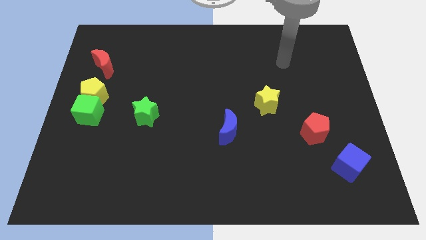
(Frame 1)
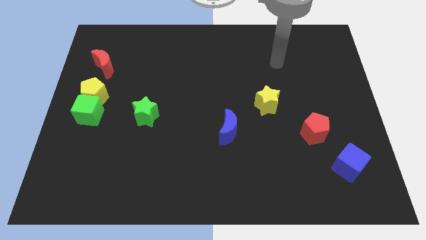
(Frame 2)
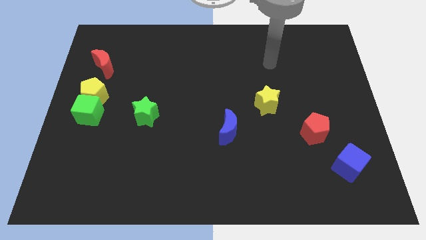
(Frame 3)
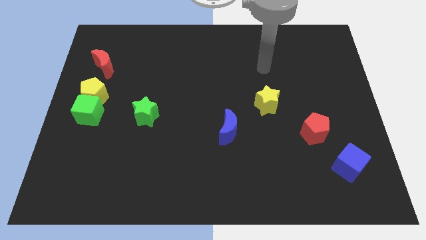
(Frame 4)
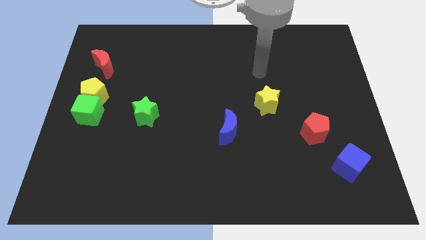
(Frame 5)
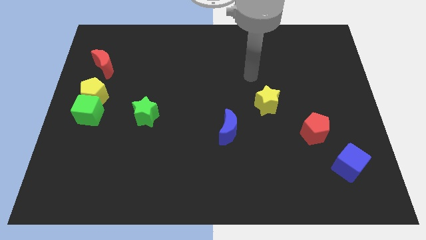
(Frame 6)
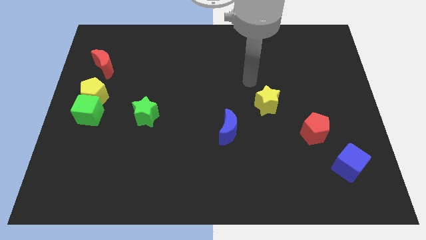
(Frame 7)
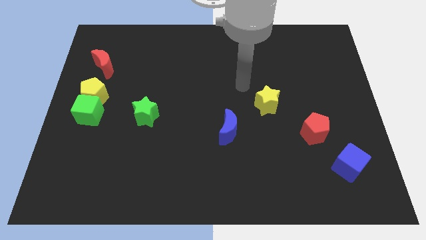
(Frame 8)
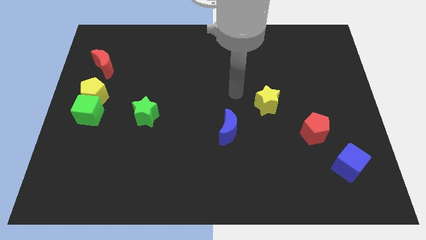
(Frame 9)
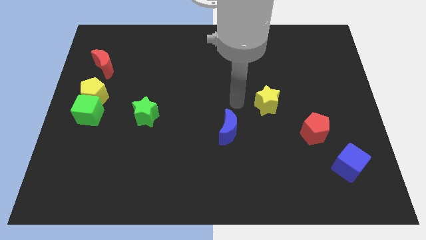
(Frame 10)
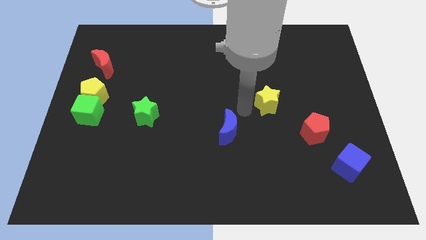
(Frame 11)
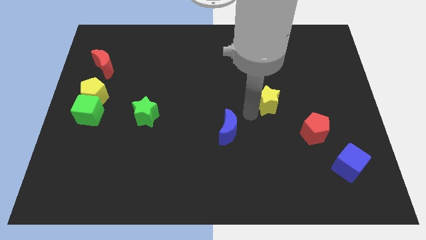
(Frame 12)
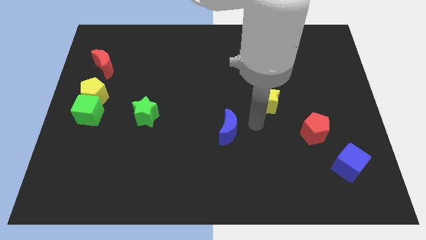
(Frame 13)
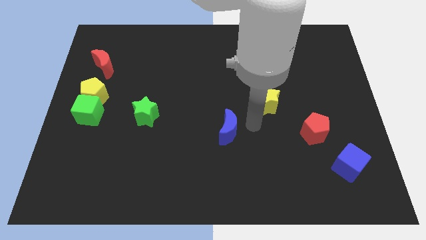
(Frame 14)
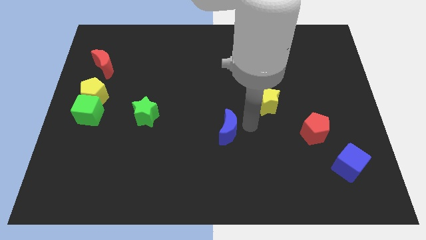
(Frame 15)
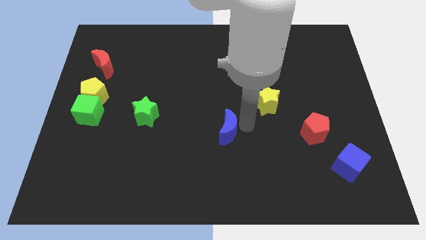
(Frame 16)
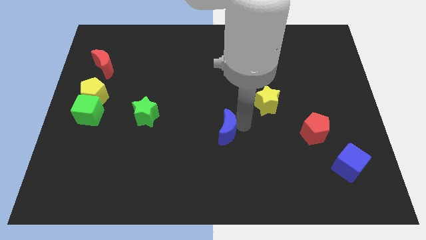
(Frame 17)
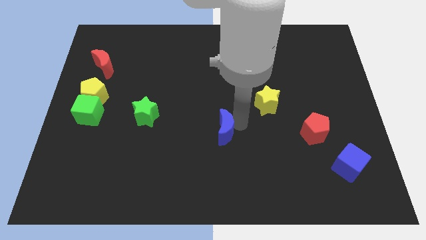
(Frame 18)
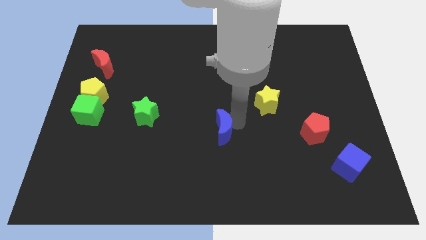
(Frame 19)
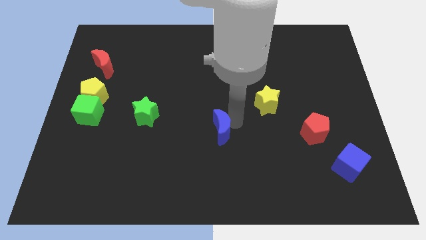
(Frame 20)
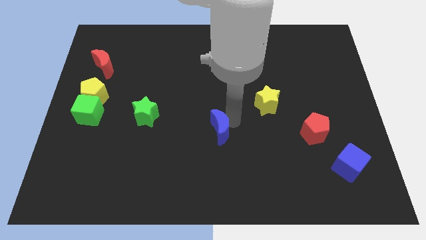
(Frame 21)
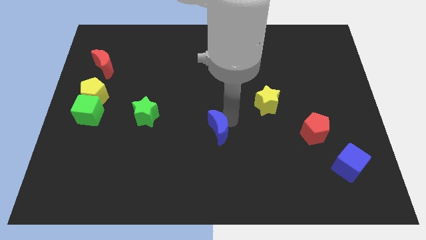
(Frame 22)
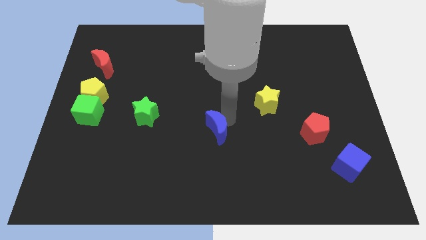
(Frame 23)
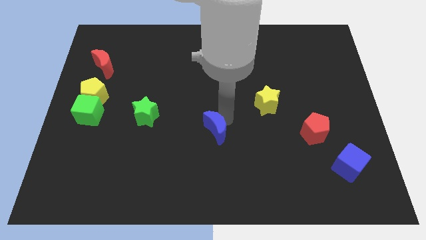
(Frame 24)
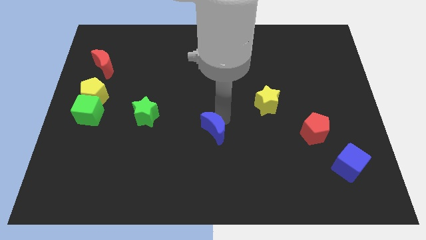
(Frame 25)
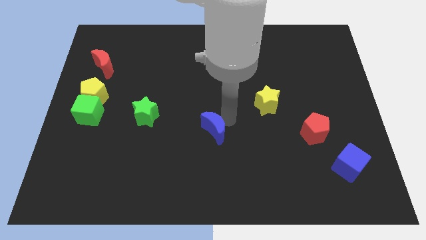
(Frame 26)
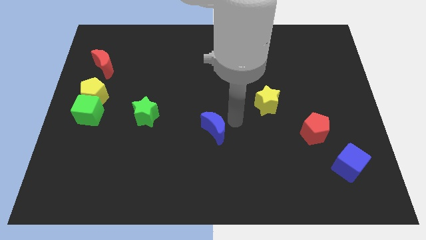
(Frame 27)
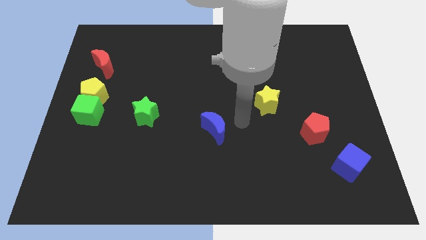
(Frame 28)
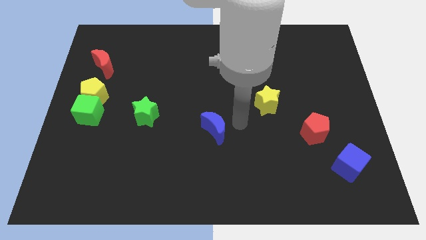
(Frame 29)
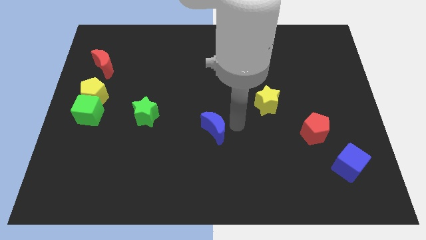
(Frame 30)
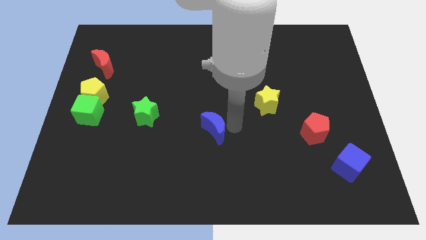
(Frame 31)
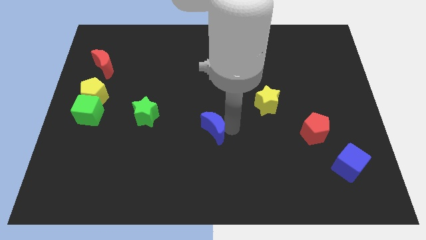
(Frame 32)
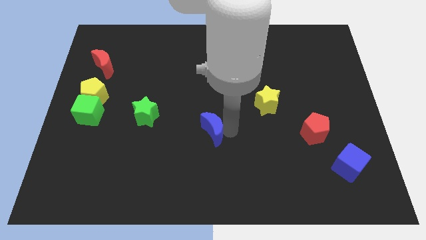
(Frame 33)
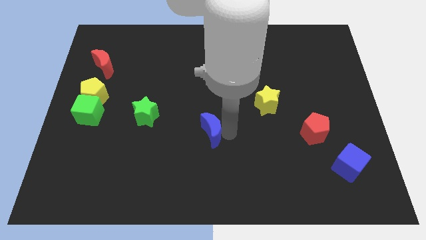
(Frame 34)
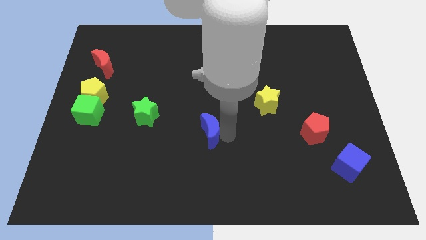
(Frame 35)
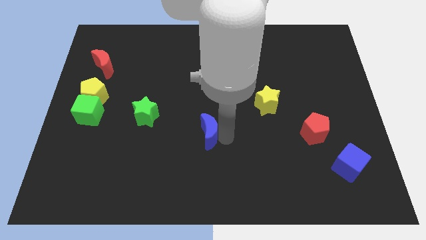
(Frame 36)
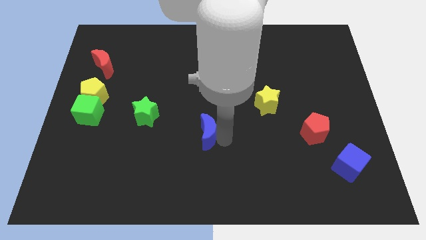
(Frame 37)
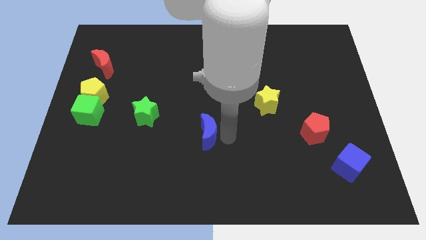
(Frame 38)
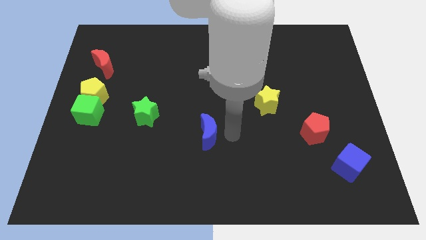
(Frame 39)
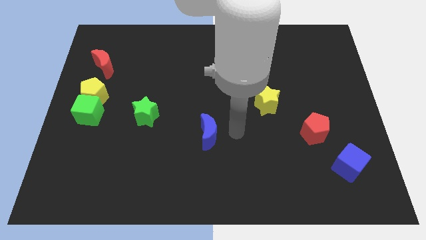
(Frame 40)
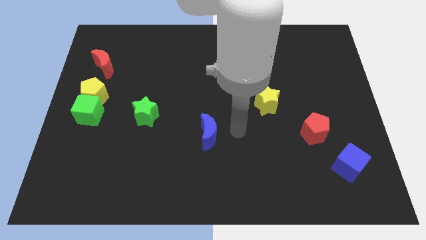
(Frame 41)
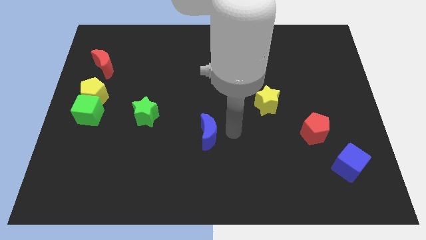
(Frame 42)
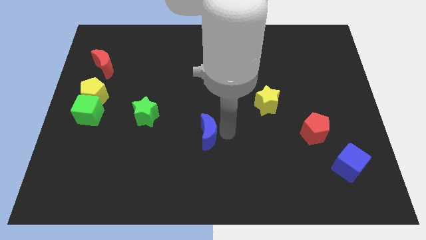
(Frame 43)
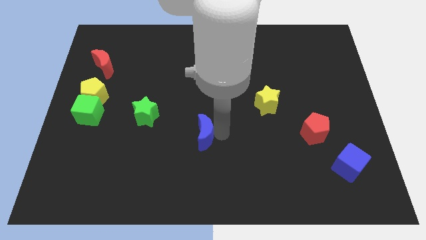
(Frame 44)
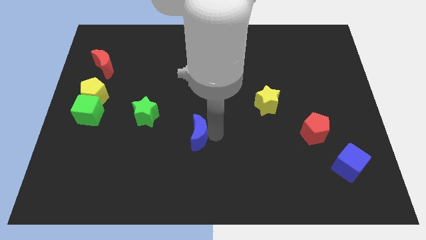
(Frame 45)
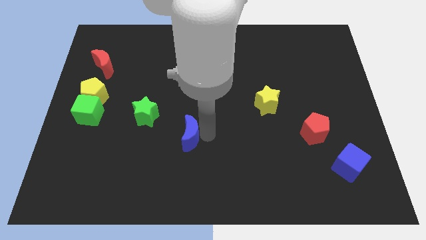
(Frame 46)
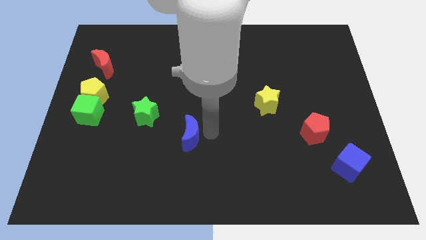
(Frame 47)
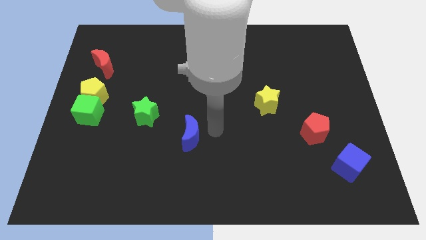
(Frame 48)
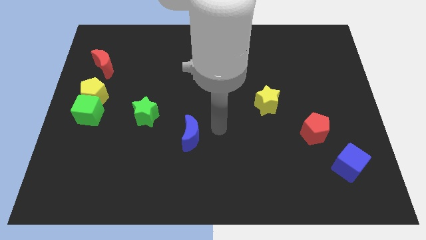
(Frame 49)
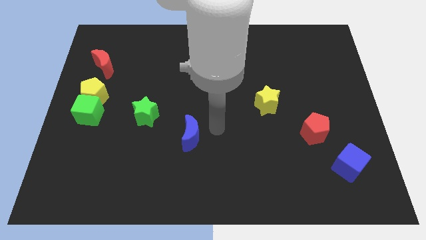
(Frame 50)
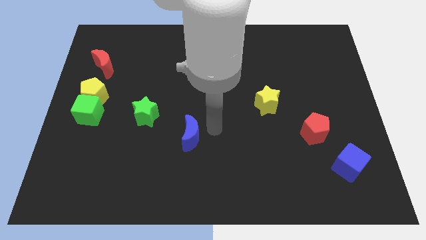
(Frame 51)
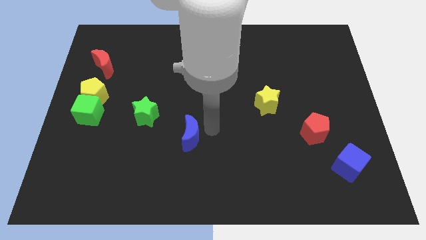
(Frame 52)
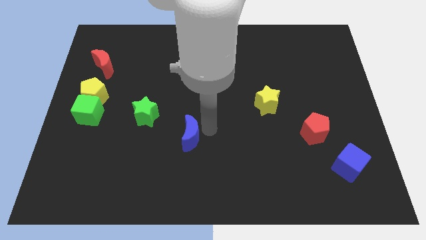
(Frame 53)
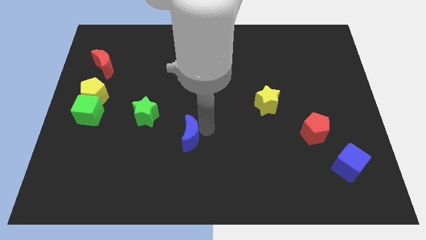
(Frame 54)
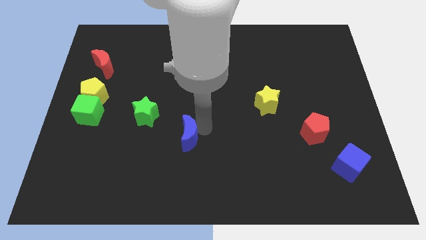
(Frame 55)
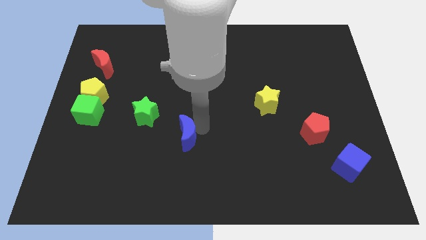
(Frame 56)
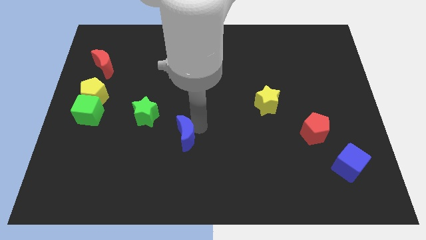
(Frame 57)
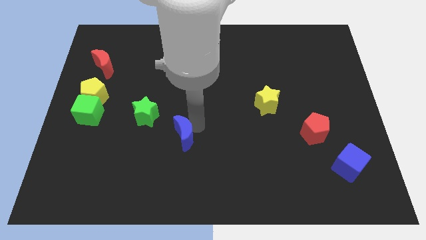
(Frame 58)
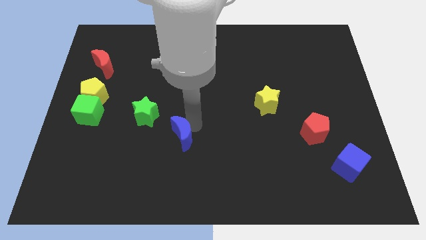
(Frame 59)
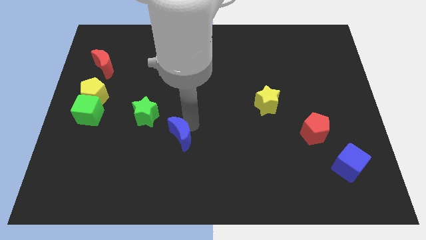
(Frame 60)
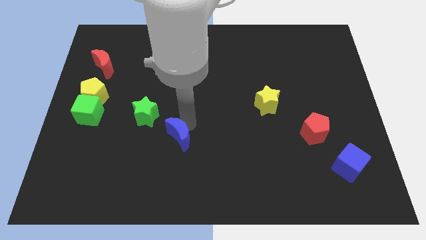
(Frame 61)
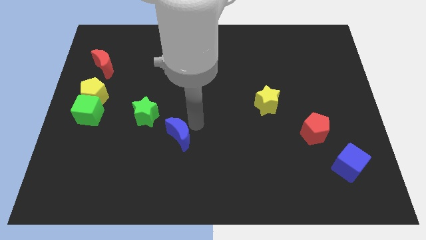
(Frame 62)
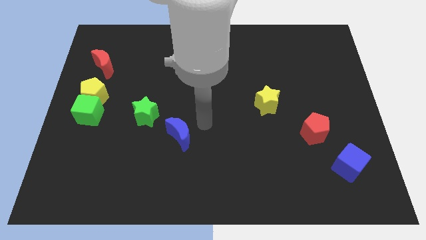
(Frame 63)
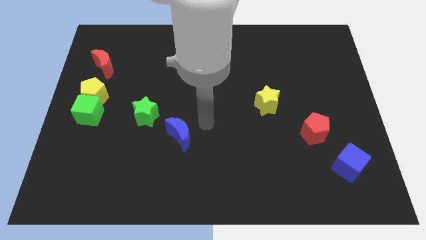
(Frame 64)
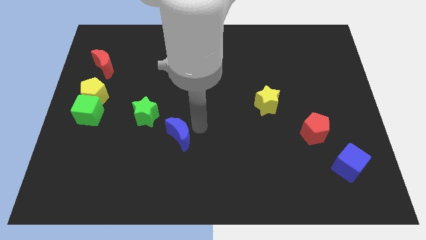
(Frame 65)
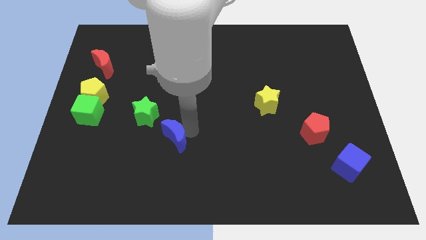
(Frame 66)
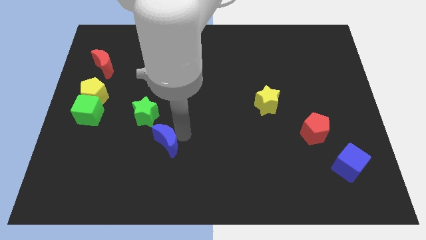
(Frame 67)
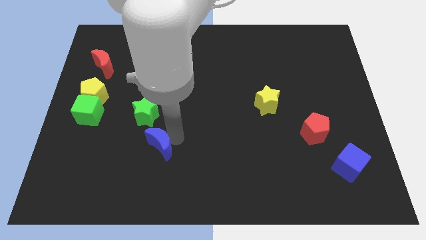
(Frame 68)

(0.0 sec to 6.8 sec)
put the blue moon to the bottom of the green star

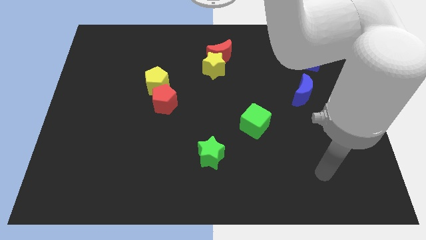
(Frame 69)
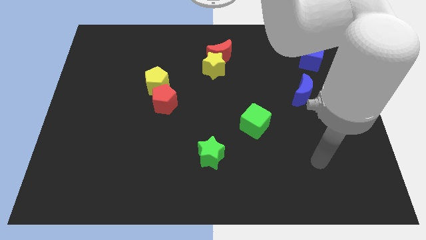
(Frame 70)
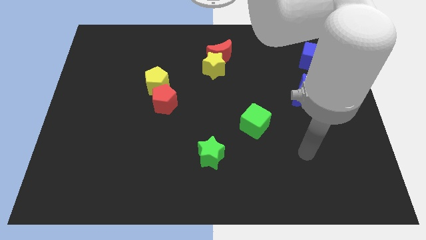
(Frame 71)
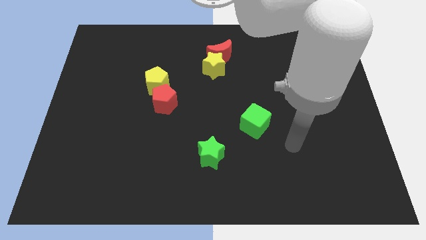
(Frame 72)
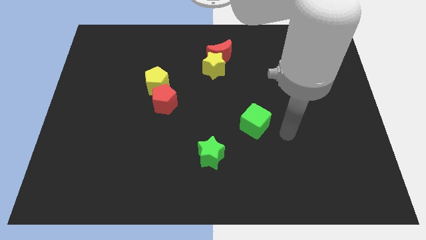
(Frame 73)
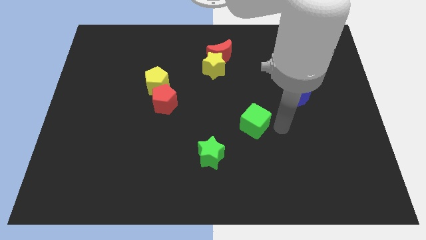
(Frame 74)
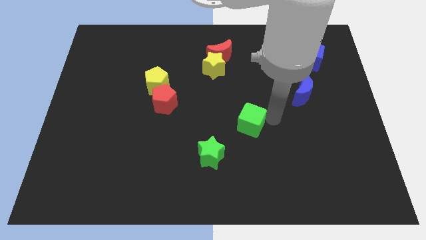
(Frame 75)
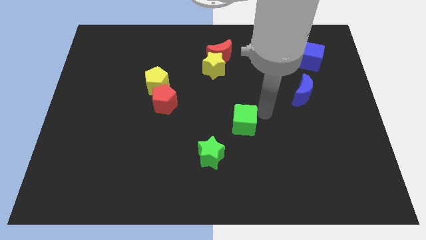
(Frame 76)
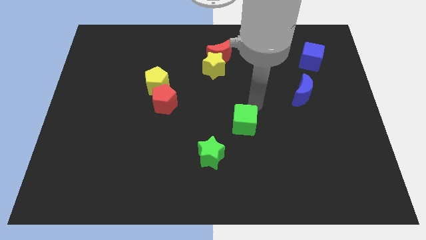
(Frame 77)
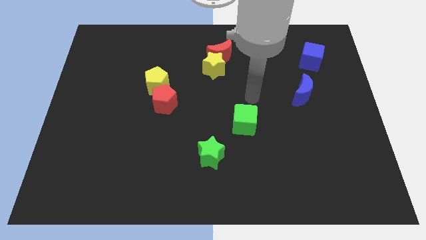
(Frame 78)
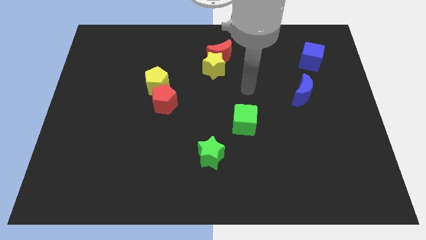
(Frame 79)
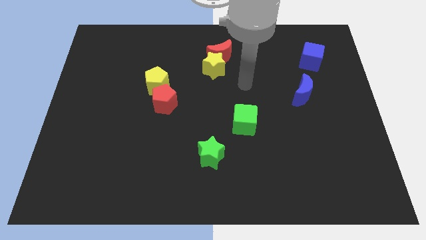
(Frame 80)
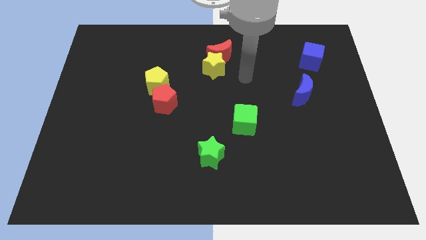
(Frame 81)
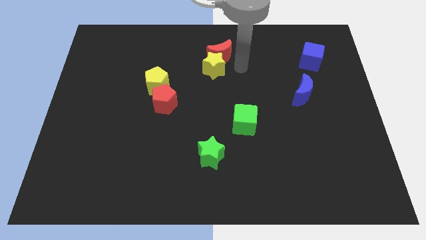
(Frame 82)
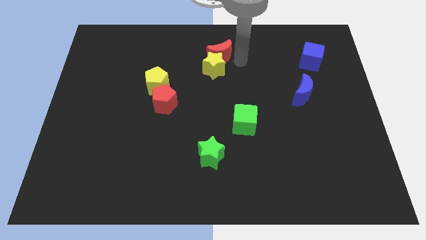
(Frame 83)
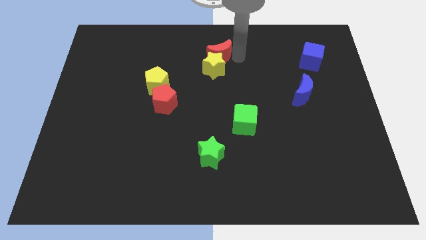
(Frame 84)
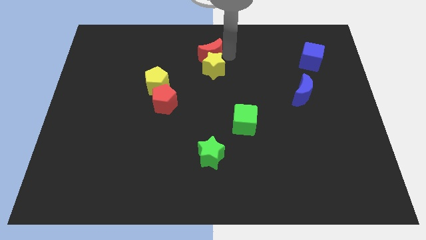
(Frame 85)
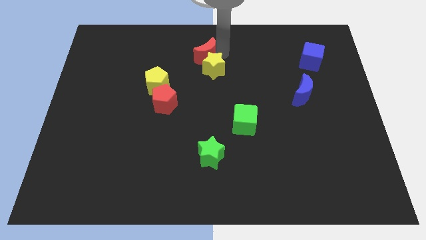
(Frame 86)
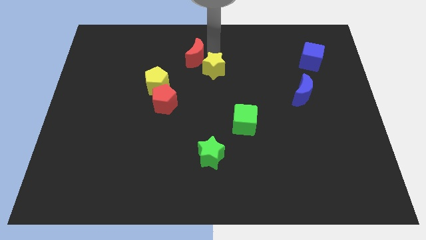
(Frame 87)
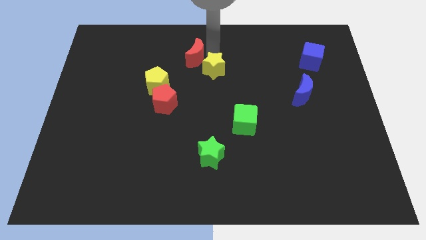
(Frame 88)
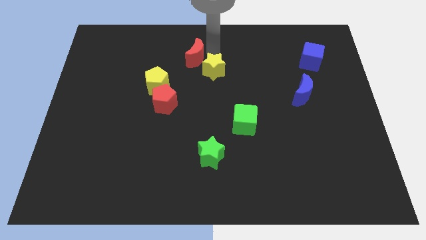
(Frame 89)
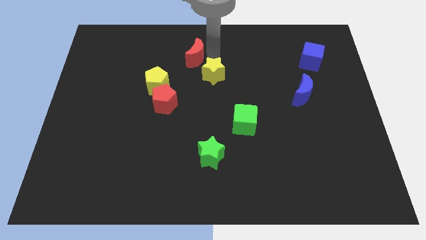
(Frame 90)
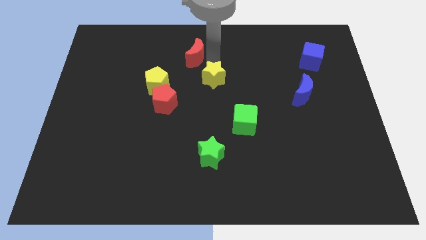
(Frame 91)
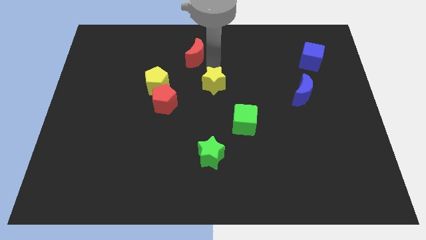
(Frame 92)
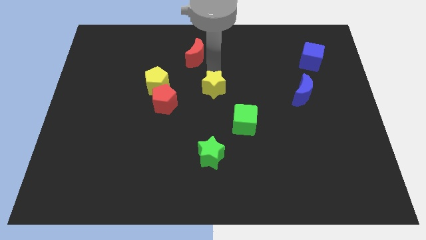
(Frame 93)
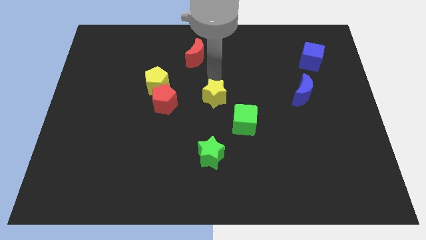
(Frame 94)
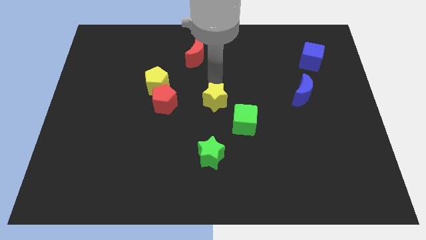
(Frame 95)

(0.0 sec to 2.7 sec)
move the yellow star to the top of the green star
